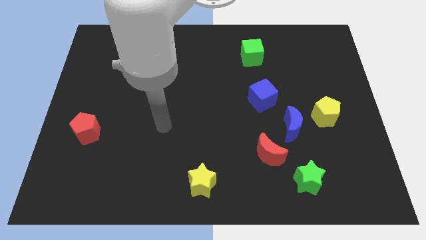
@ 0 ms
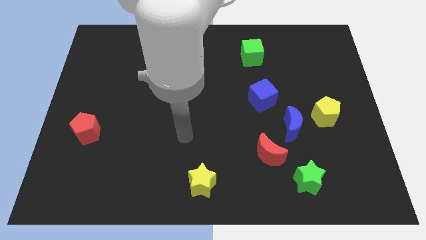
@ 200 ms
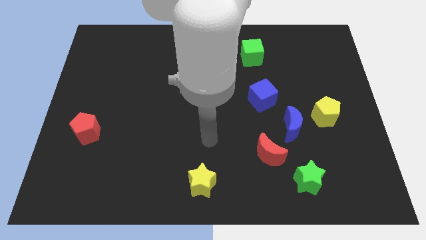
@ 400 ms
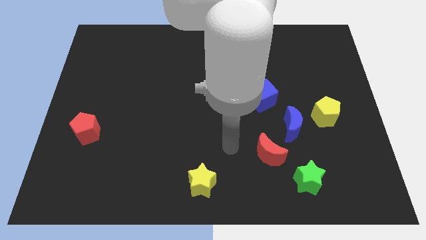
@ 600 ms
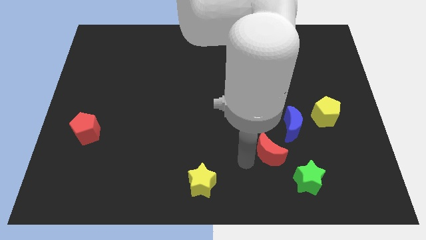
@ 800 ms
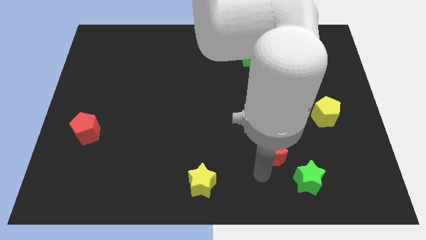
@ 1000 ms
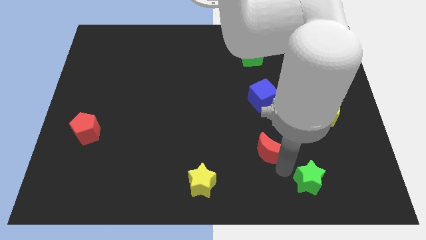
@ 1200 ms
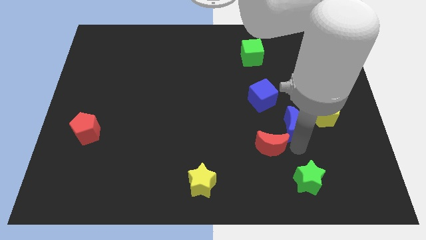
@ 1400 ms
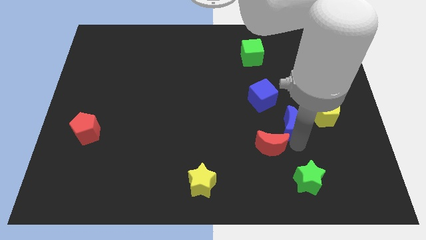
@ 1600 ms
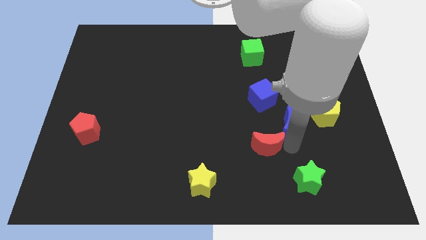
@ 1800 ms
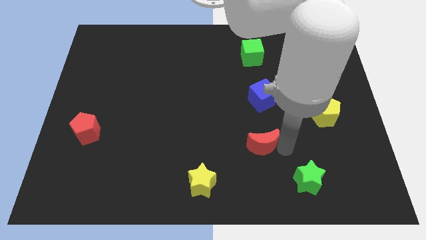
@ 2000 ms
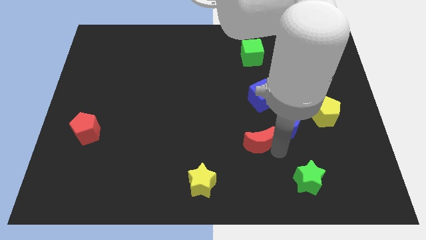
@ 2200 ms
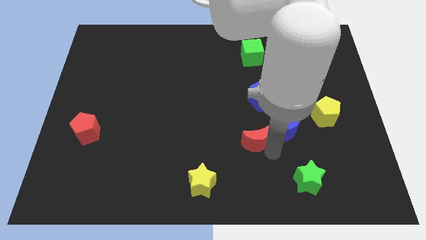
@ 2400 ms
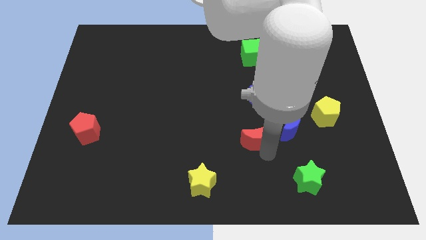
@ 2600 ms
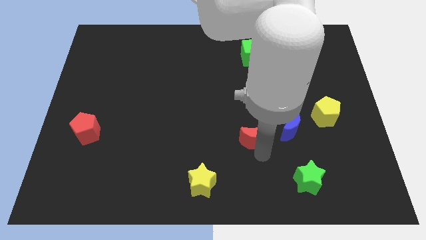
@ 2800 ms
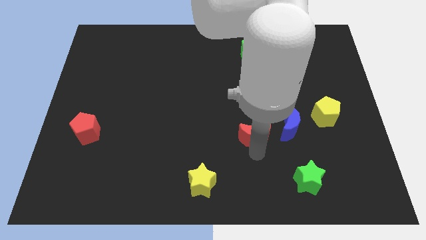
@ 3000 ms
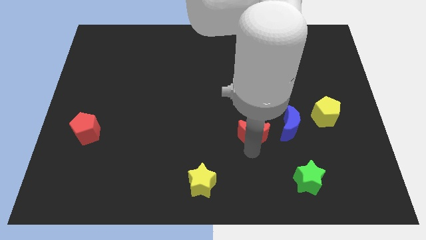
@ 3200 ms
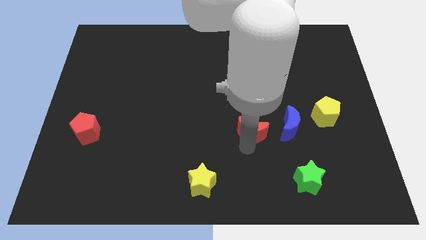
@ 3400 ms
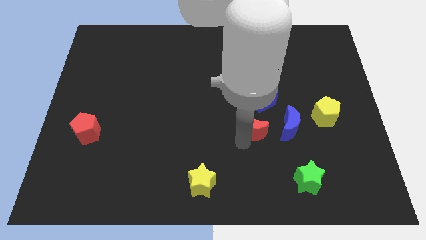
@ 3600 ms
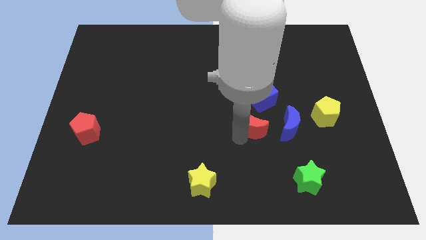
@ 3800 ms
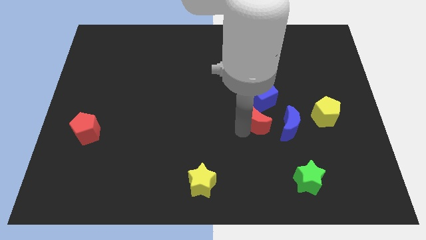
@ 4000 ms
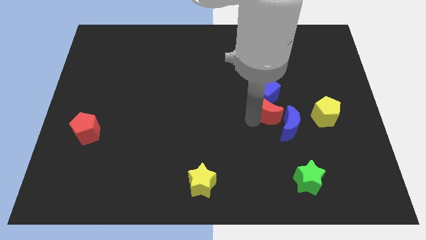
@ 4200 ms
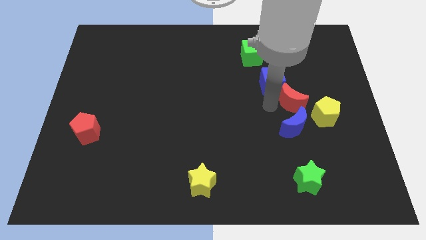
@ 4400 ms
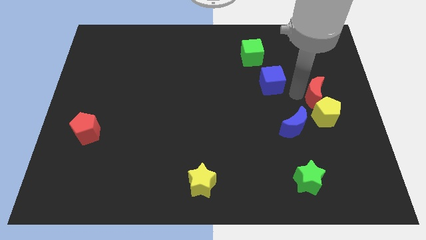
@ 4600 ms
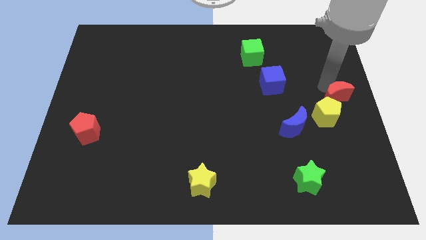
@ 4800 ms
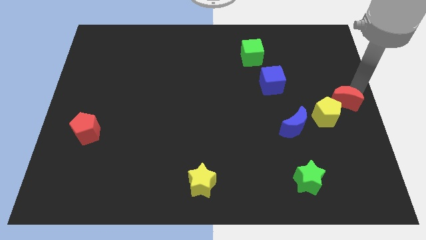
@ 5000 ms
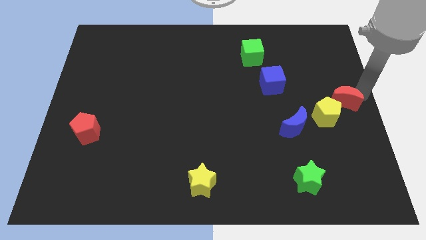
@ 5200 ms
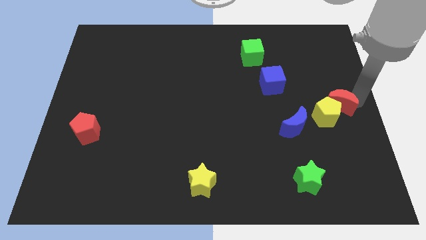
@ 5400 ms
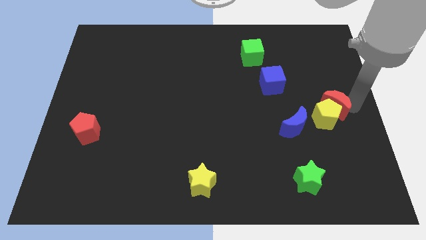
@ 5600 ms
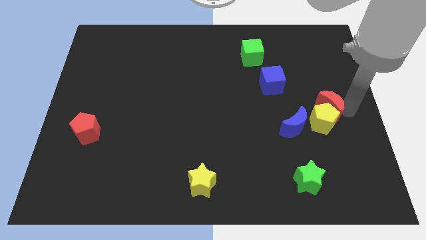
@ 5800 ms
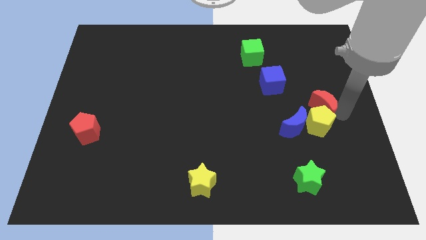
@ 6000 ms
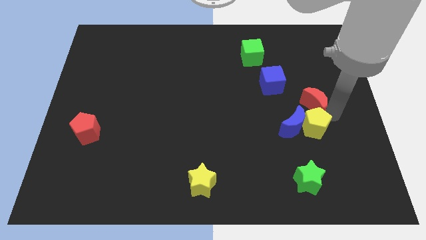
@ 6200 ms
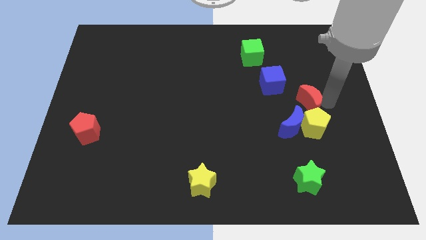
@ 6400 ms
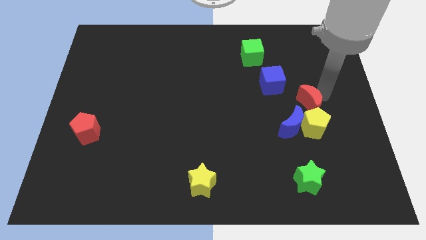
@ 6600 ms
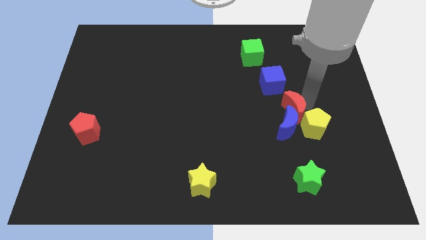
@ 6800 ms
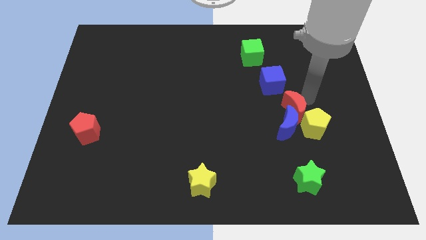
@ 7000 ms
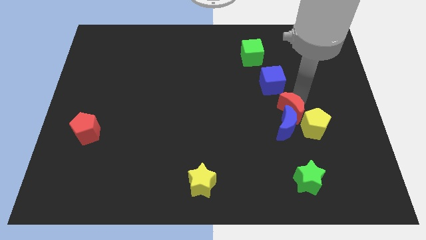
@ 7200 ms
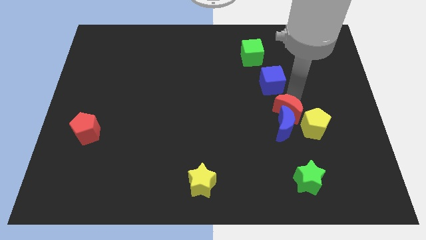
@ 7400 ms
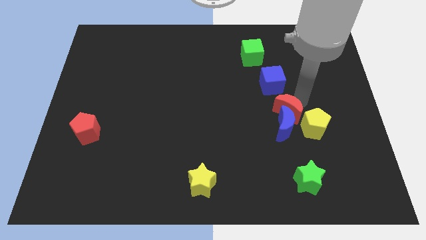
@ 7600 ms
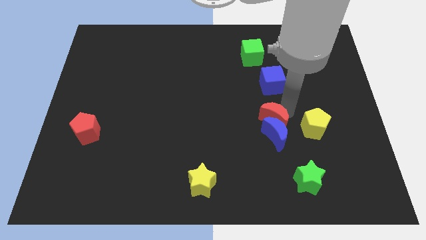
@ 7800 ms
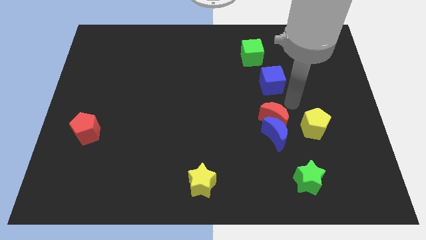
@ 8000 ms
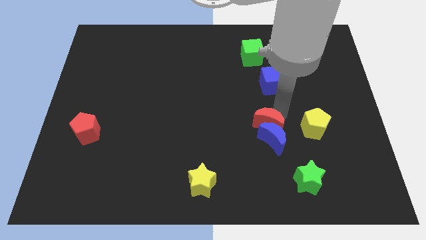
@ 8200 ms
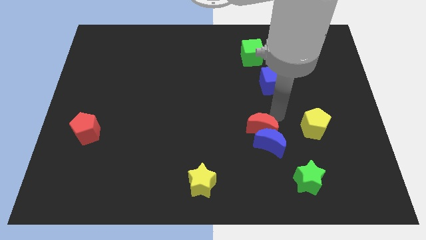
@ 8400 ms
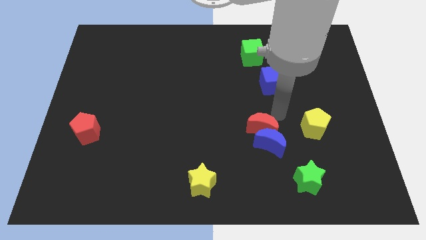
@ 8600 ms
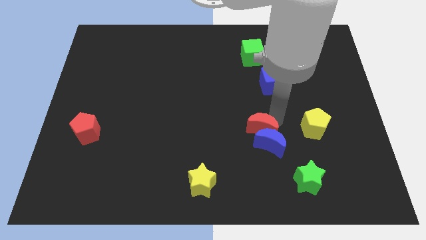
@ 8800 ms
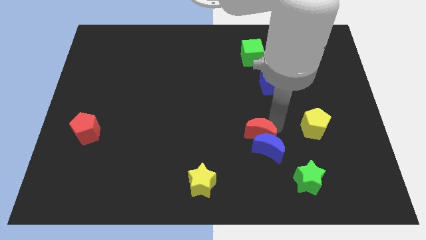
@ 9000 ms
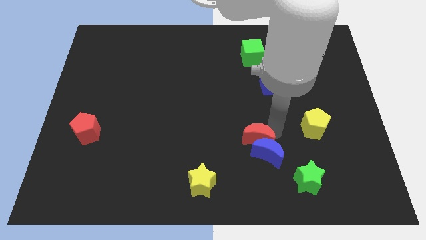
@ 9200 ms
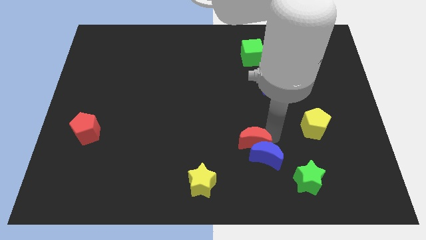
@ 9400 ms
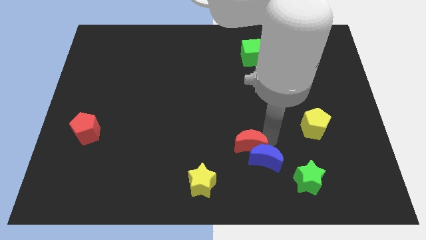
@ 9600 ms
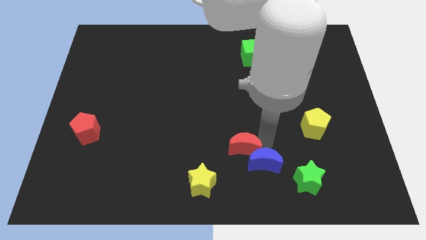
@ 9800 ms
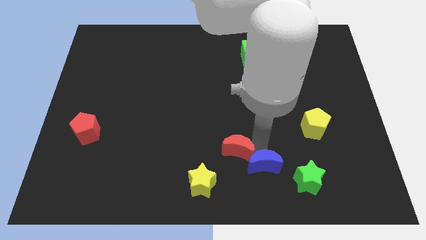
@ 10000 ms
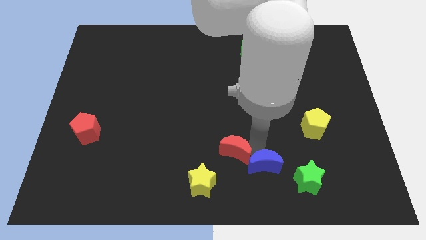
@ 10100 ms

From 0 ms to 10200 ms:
move the red moon to the left a little

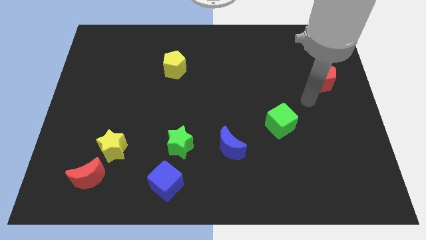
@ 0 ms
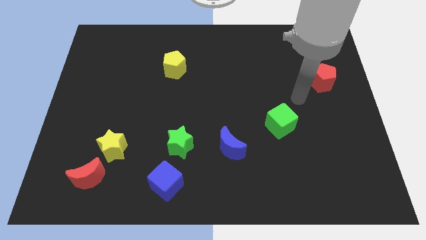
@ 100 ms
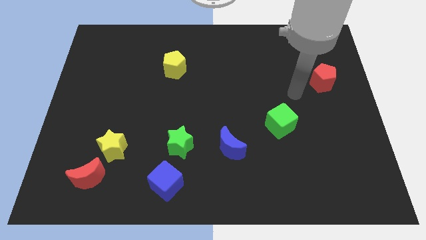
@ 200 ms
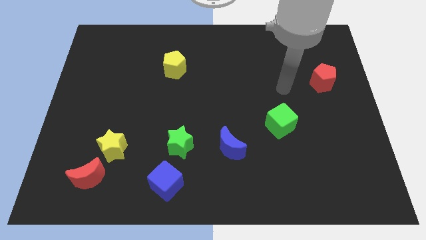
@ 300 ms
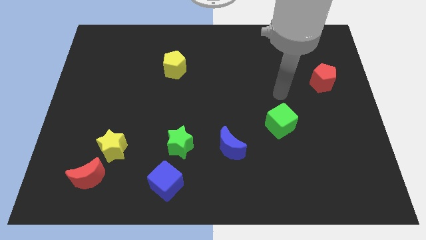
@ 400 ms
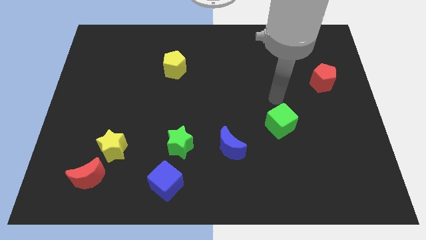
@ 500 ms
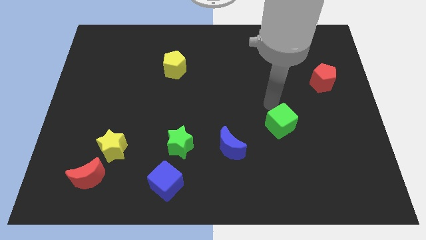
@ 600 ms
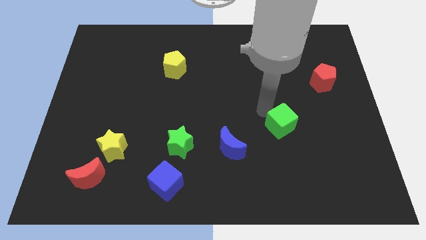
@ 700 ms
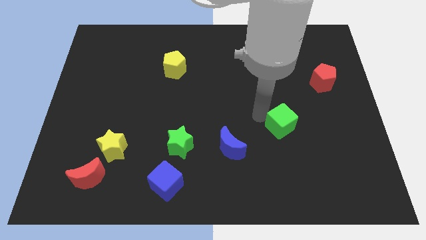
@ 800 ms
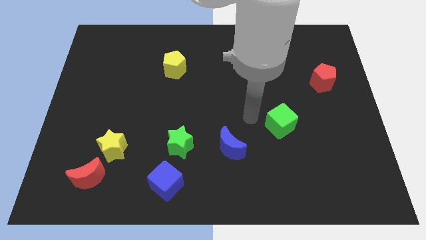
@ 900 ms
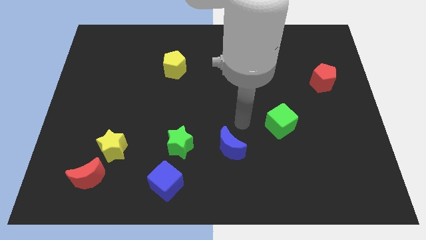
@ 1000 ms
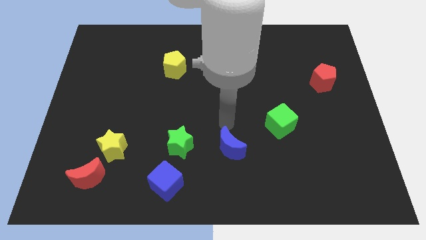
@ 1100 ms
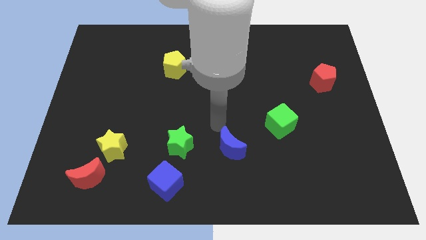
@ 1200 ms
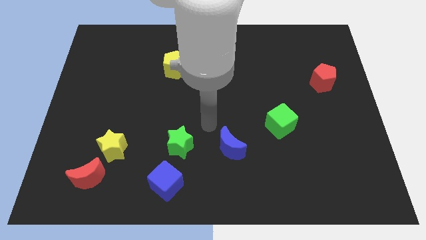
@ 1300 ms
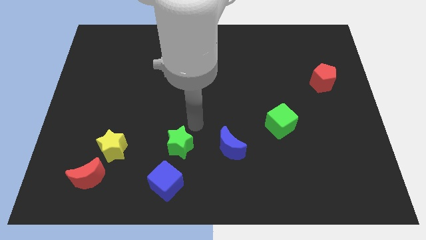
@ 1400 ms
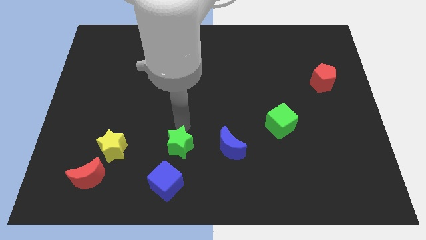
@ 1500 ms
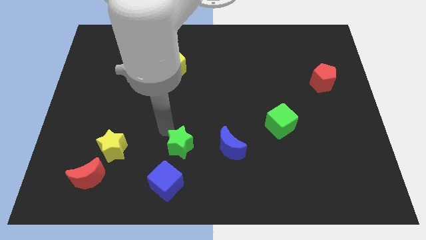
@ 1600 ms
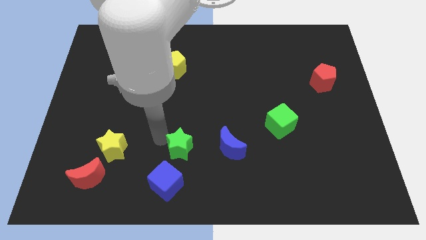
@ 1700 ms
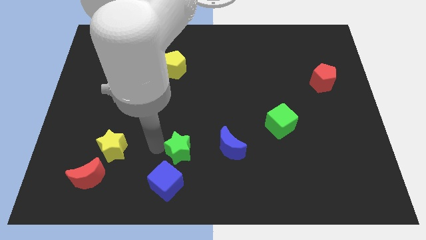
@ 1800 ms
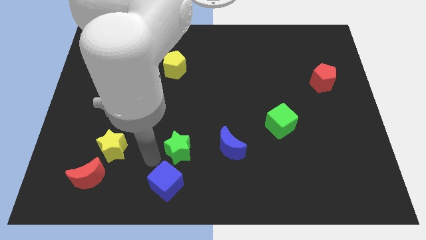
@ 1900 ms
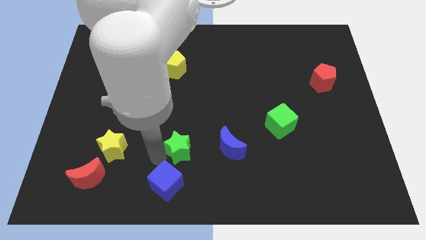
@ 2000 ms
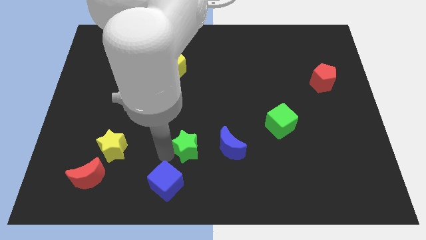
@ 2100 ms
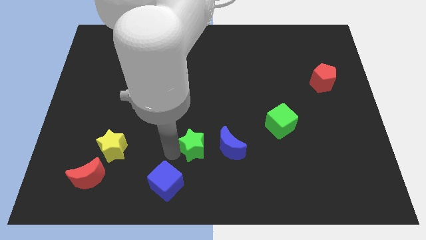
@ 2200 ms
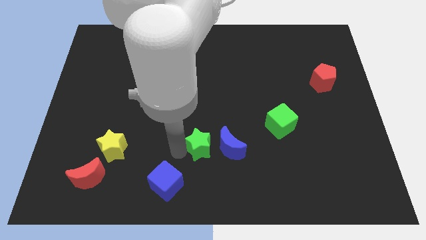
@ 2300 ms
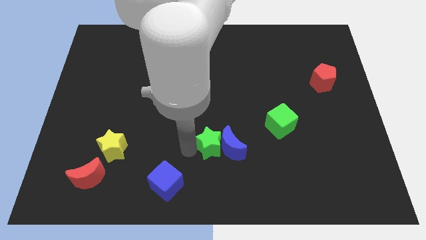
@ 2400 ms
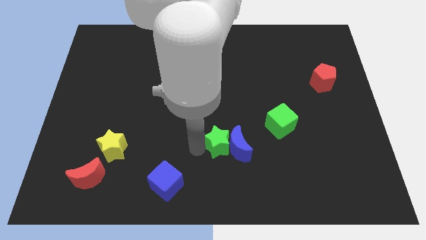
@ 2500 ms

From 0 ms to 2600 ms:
move the green star to the right slightly
